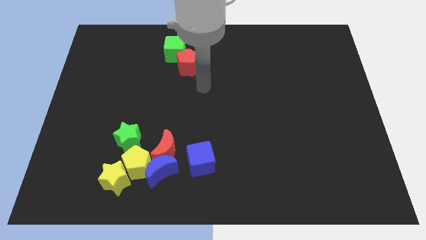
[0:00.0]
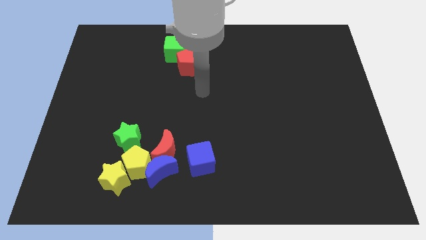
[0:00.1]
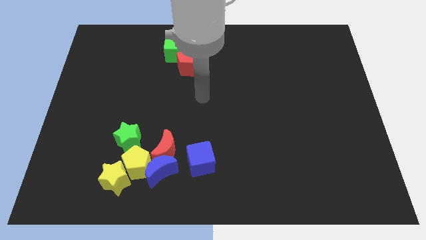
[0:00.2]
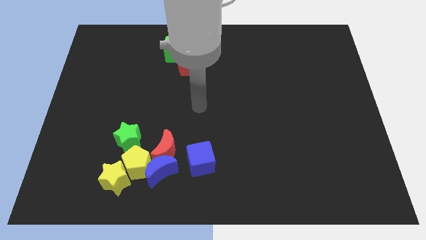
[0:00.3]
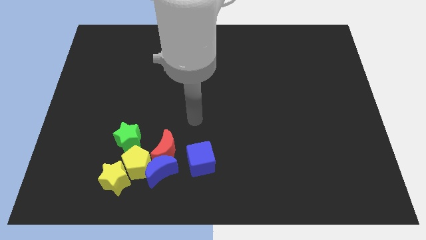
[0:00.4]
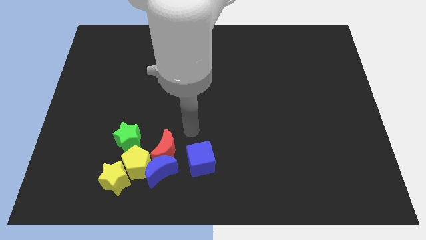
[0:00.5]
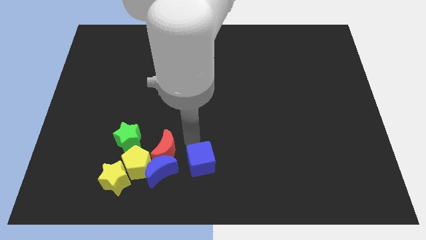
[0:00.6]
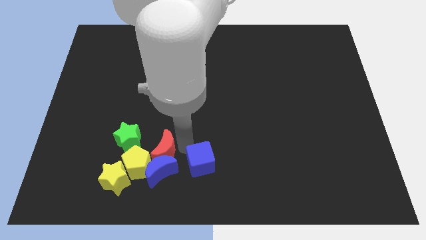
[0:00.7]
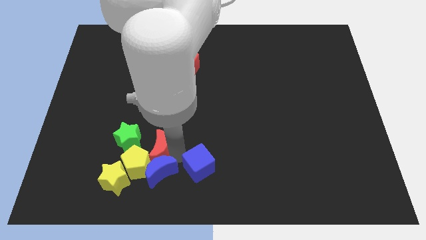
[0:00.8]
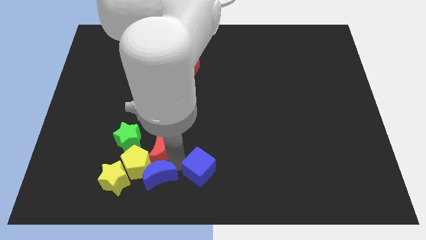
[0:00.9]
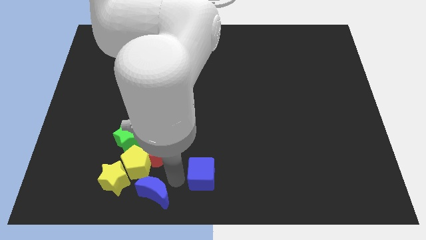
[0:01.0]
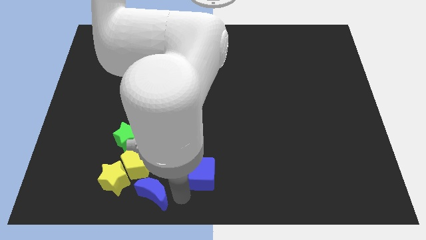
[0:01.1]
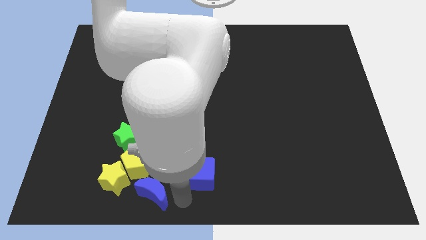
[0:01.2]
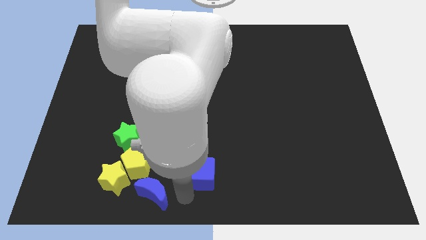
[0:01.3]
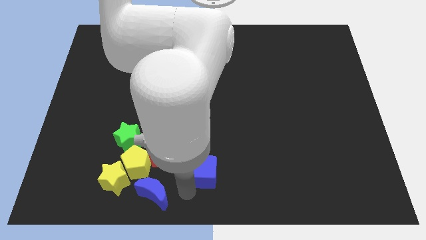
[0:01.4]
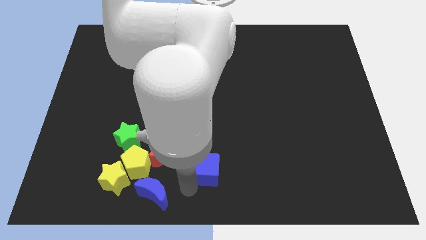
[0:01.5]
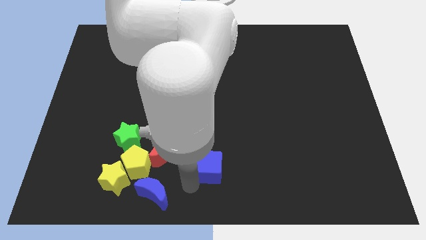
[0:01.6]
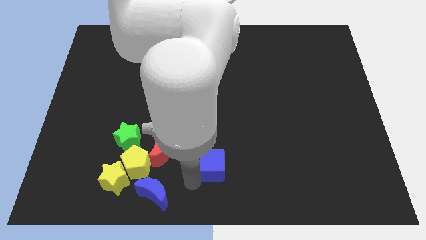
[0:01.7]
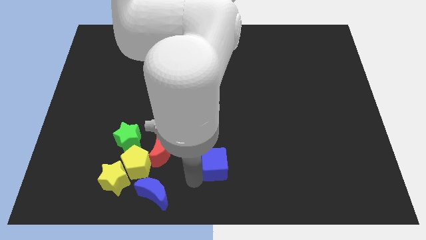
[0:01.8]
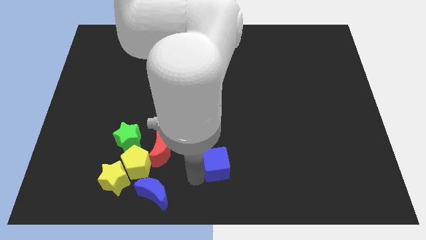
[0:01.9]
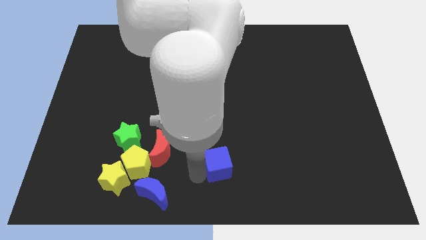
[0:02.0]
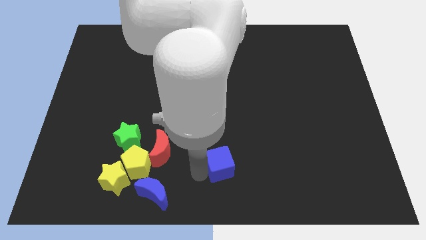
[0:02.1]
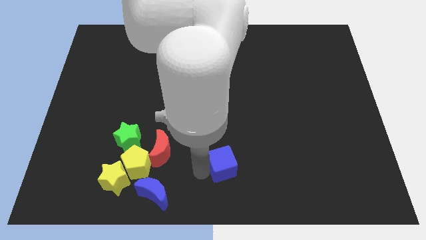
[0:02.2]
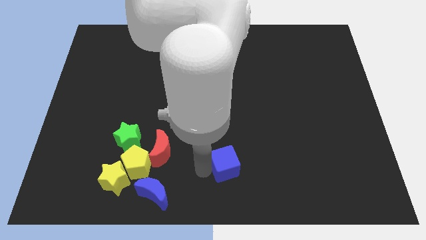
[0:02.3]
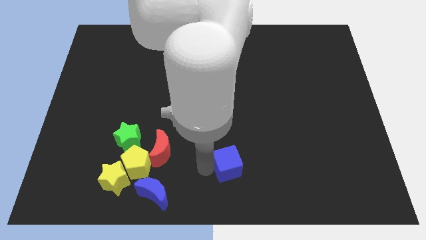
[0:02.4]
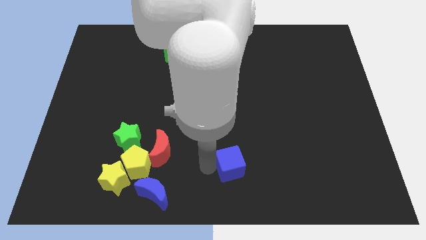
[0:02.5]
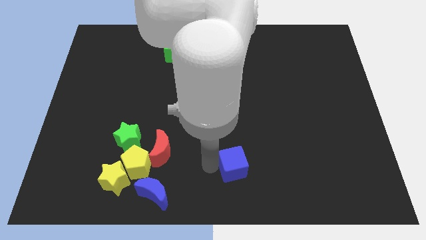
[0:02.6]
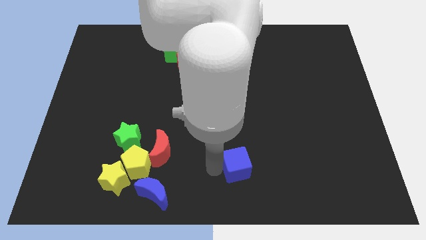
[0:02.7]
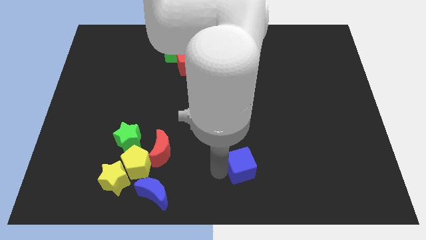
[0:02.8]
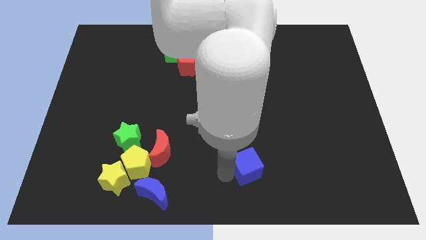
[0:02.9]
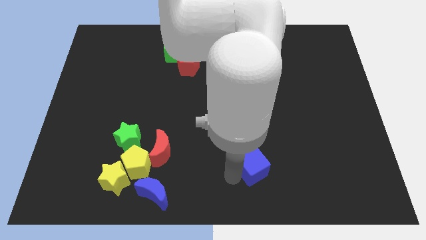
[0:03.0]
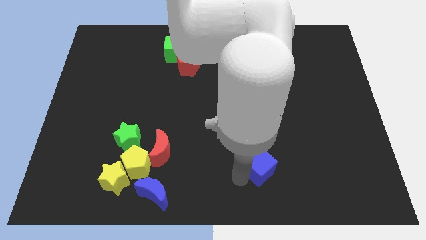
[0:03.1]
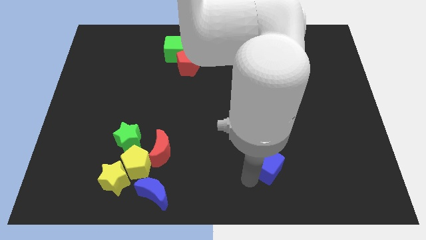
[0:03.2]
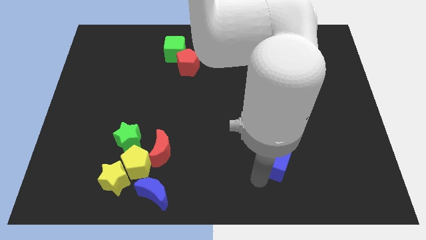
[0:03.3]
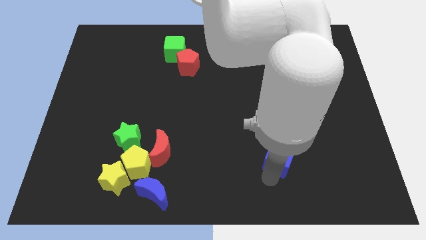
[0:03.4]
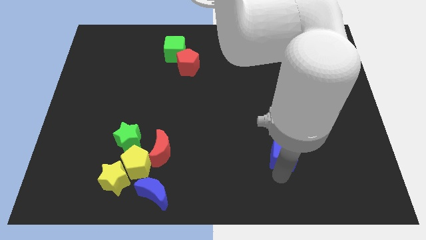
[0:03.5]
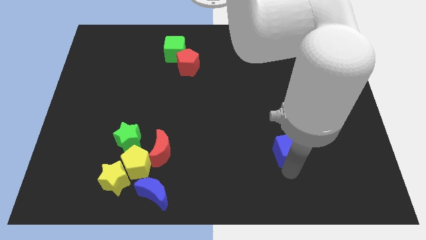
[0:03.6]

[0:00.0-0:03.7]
move the blue cube a bit up and right

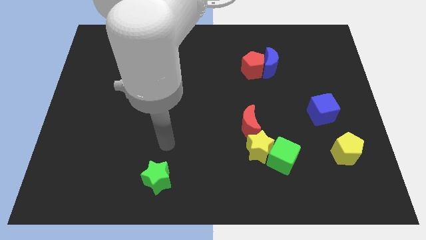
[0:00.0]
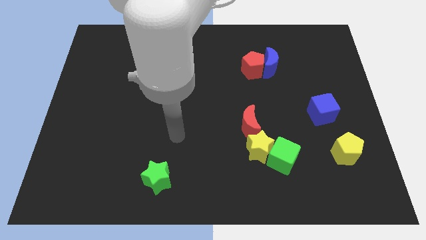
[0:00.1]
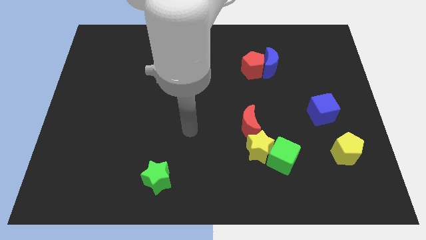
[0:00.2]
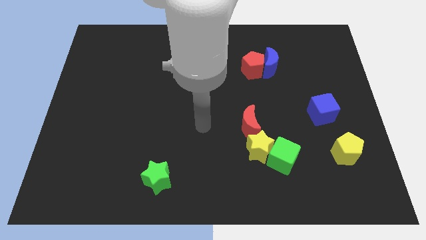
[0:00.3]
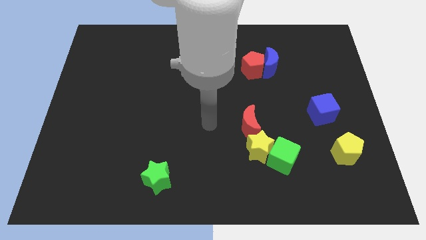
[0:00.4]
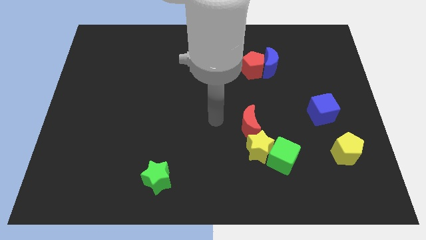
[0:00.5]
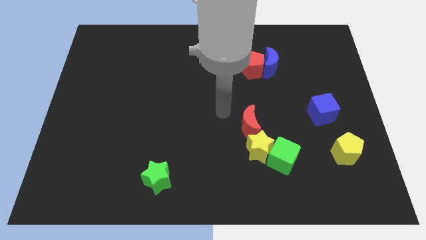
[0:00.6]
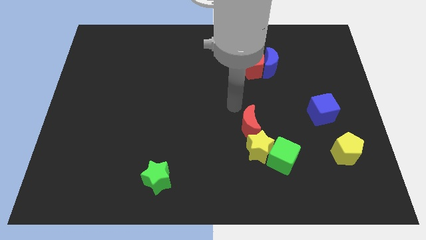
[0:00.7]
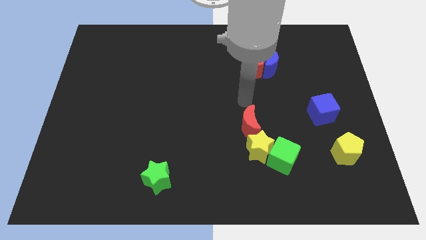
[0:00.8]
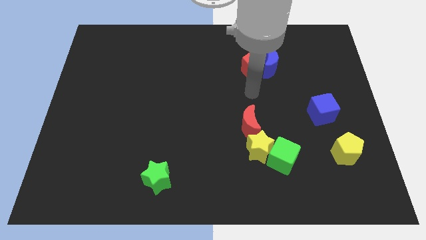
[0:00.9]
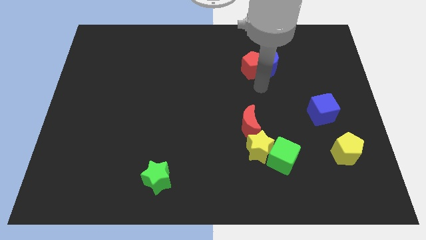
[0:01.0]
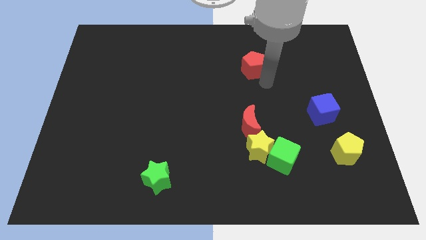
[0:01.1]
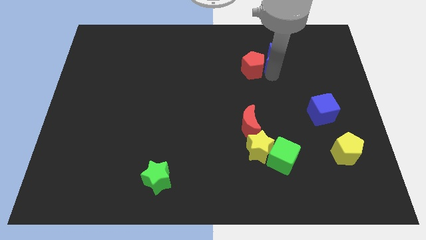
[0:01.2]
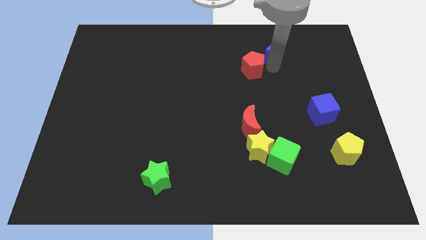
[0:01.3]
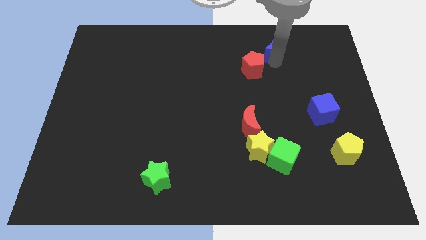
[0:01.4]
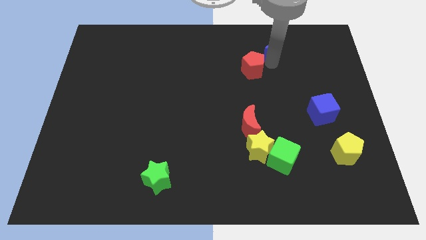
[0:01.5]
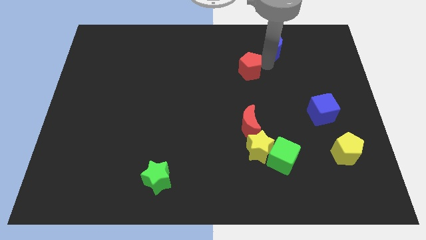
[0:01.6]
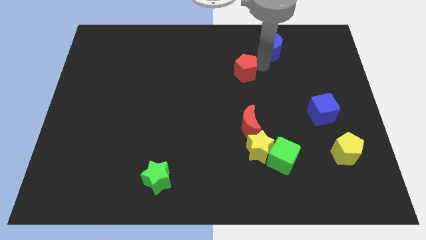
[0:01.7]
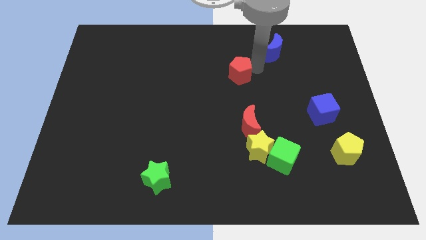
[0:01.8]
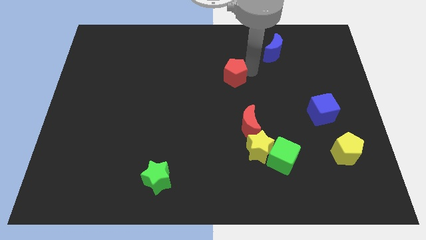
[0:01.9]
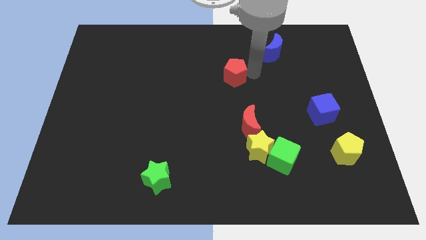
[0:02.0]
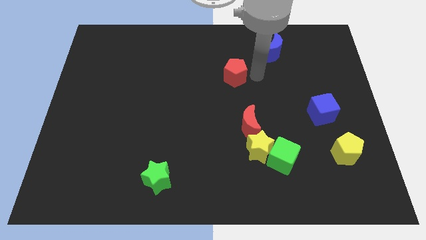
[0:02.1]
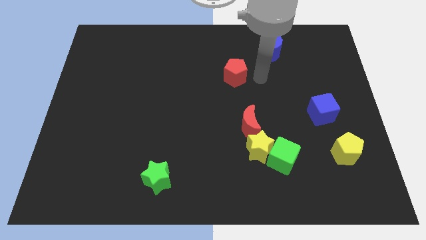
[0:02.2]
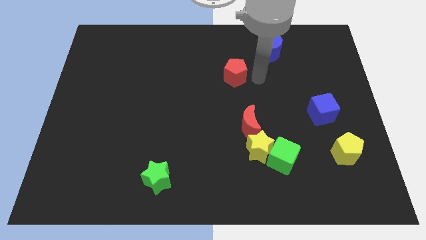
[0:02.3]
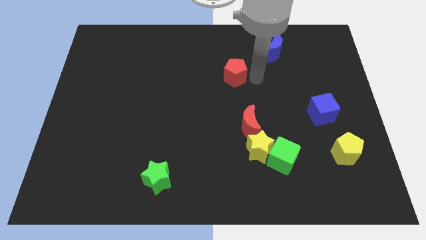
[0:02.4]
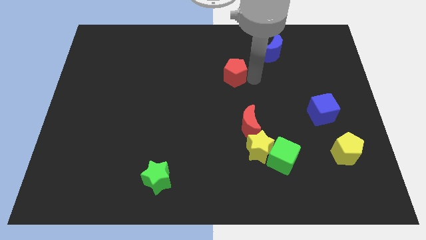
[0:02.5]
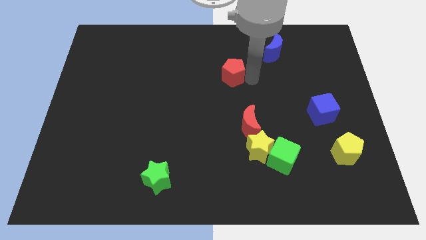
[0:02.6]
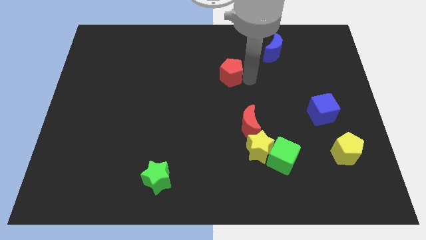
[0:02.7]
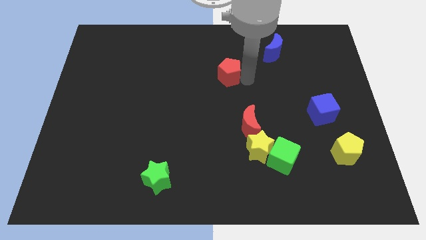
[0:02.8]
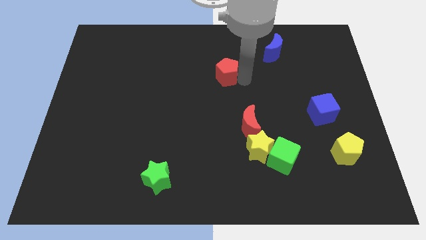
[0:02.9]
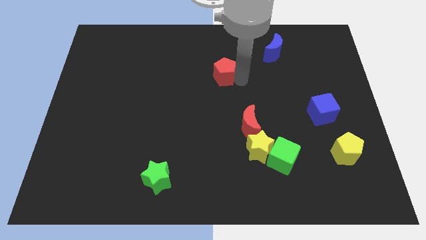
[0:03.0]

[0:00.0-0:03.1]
slide the red pentagon to the left slightly

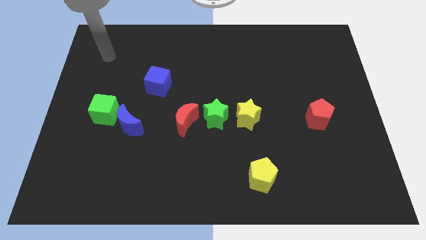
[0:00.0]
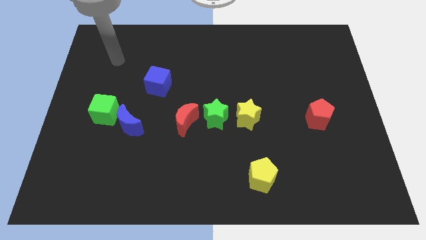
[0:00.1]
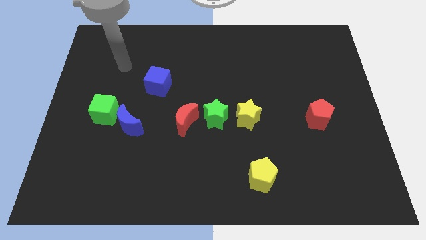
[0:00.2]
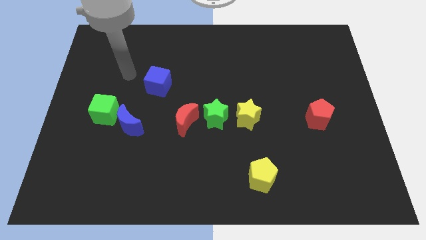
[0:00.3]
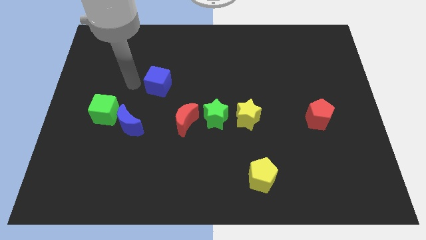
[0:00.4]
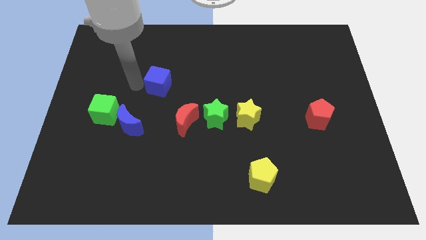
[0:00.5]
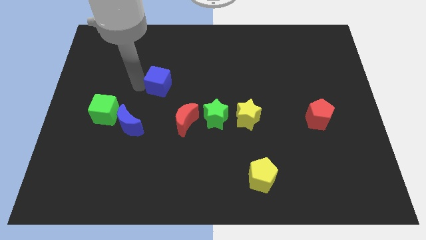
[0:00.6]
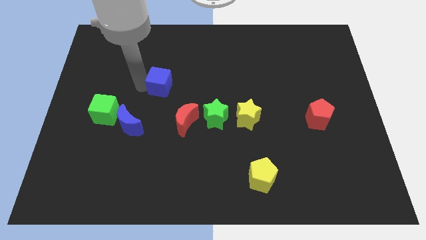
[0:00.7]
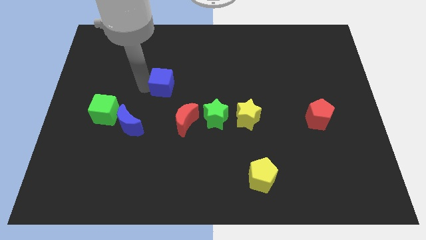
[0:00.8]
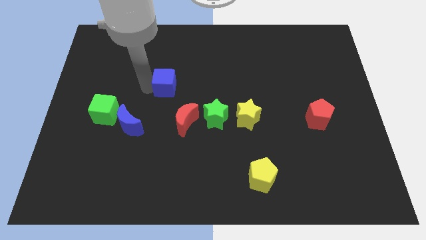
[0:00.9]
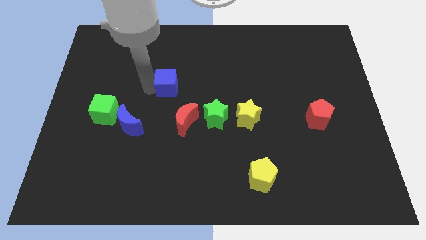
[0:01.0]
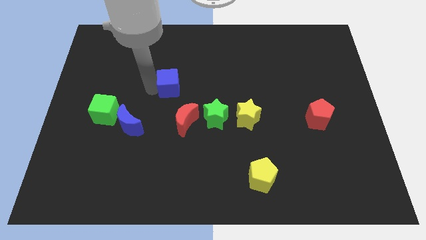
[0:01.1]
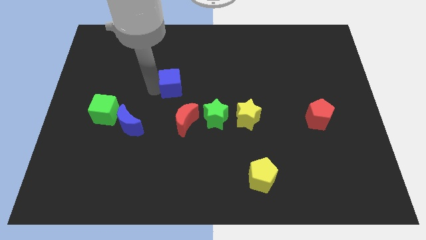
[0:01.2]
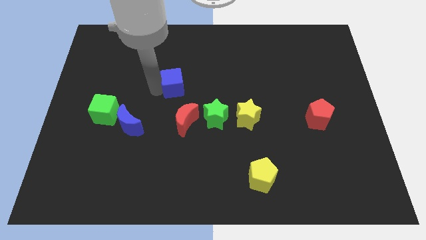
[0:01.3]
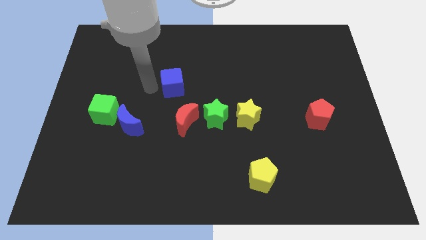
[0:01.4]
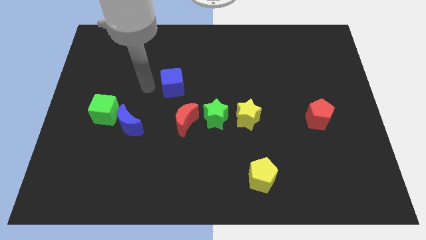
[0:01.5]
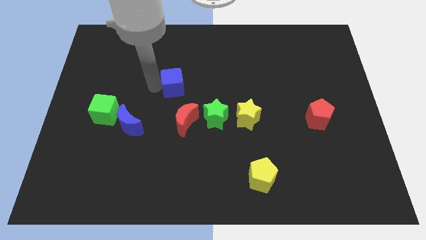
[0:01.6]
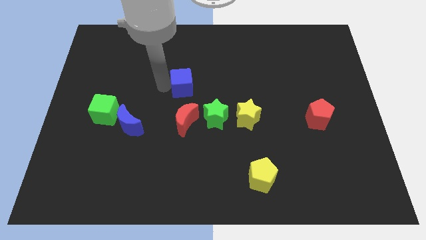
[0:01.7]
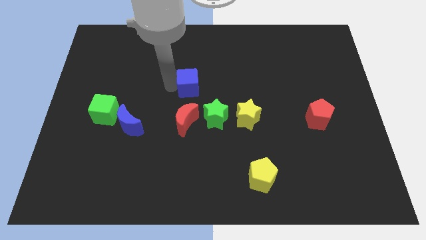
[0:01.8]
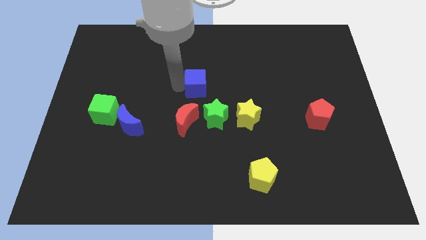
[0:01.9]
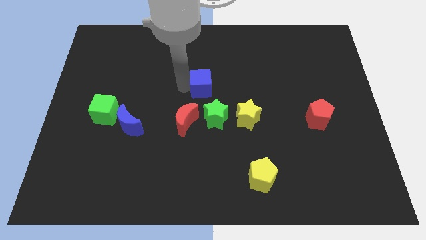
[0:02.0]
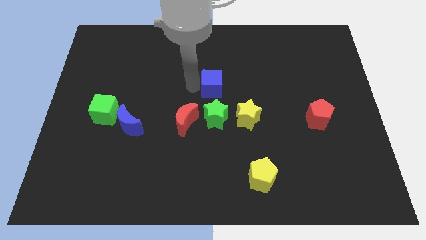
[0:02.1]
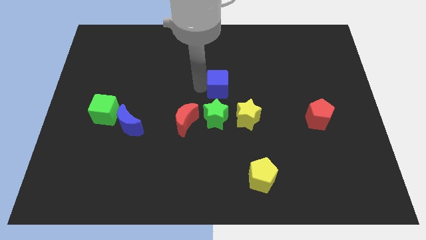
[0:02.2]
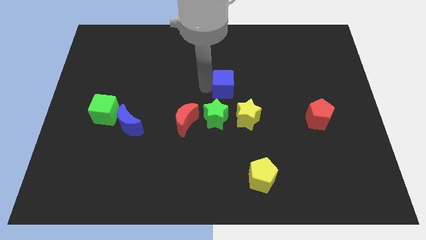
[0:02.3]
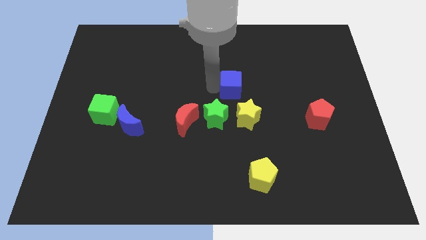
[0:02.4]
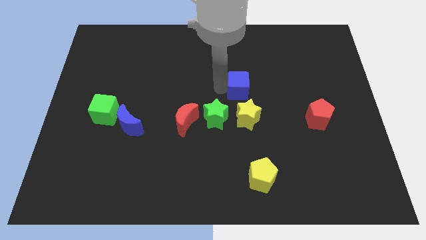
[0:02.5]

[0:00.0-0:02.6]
move the blue cube right
